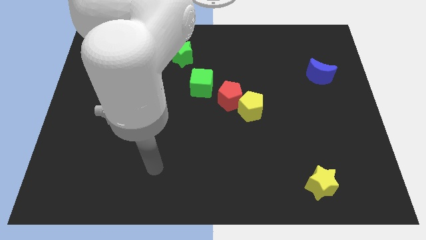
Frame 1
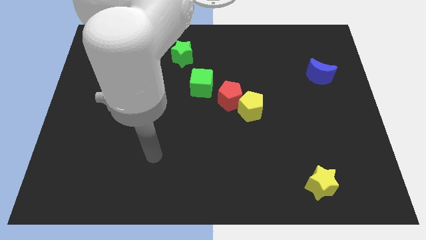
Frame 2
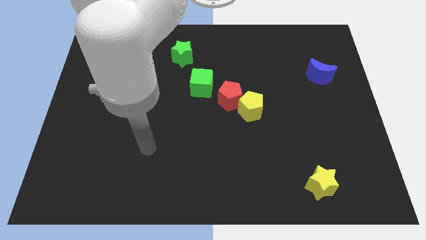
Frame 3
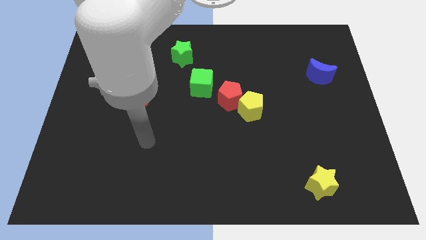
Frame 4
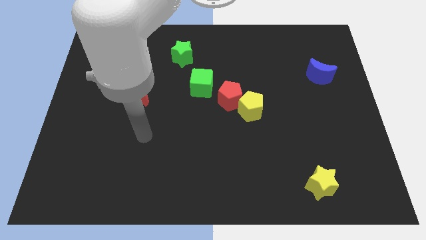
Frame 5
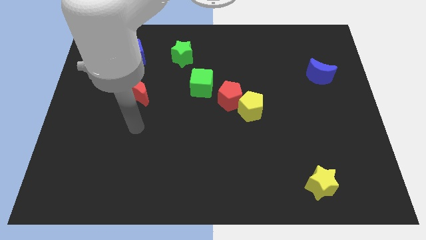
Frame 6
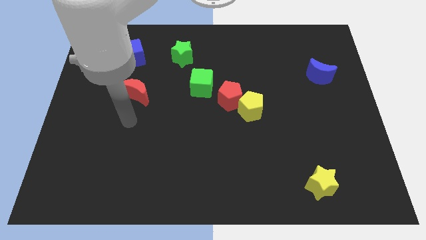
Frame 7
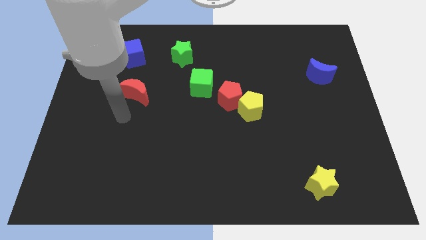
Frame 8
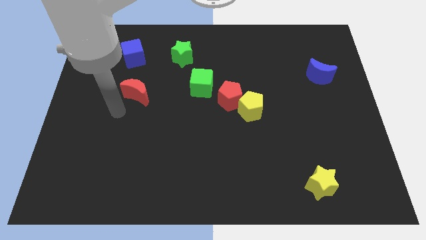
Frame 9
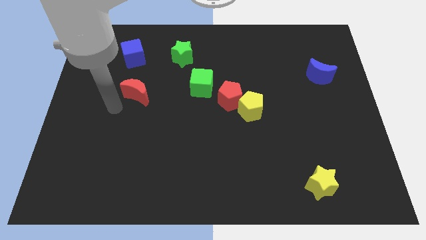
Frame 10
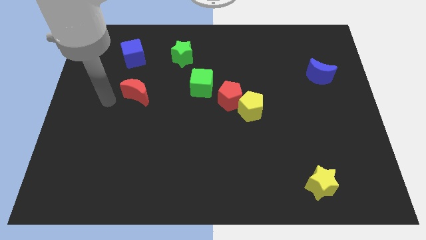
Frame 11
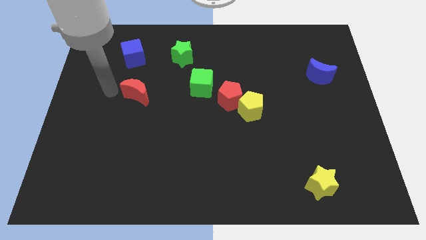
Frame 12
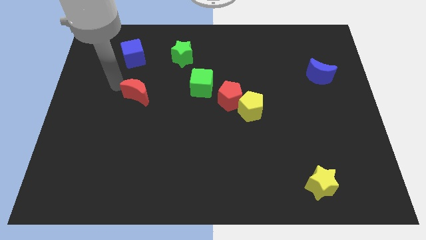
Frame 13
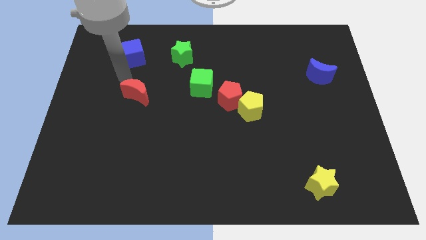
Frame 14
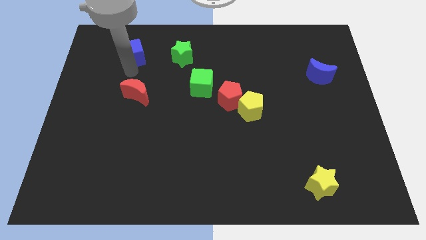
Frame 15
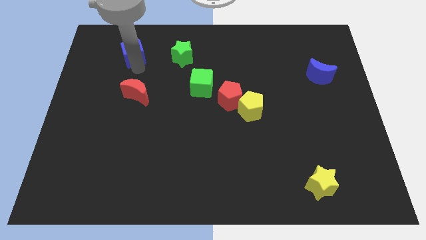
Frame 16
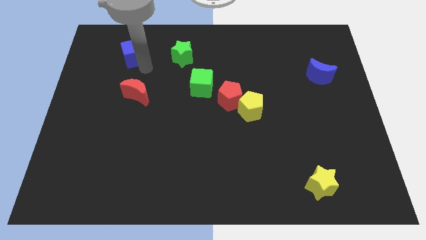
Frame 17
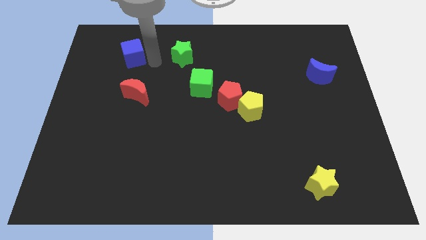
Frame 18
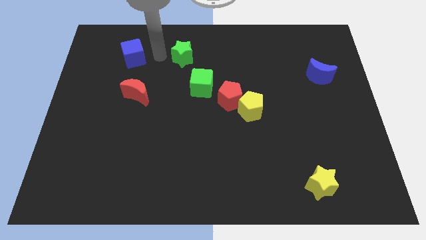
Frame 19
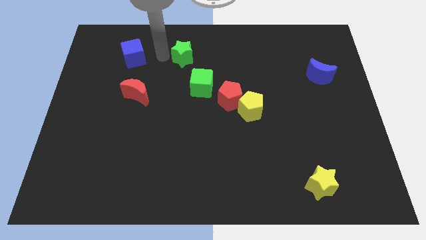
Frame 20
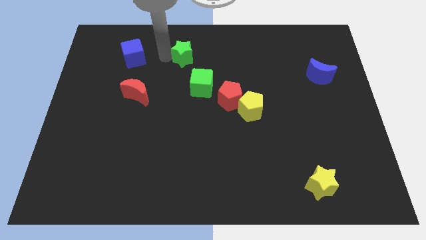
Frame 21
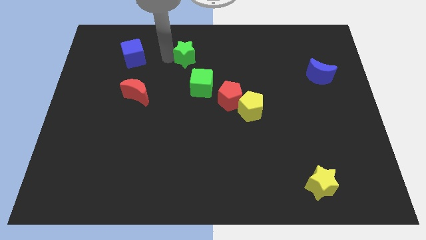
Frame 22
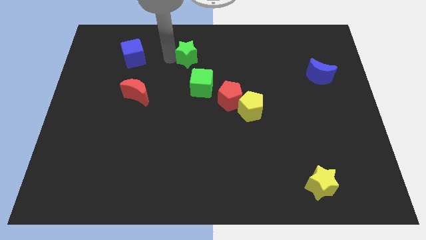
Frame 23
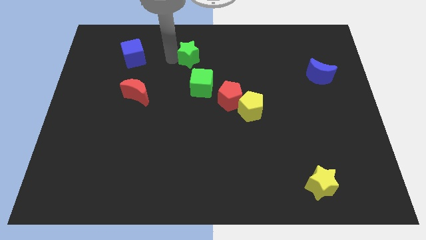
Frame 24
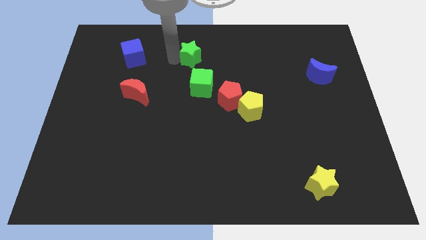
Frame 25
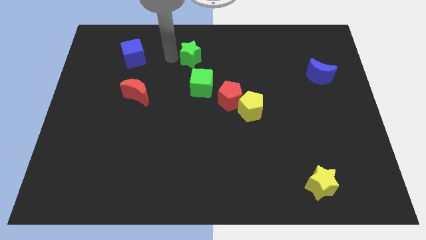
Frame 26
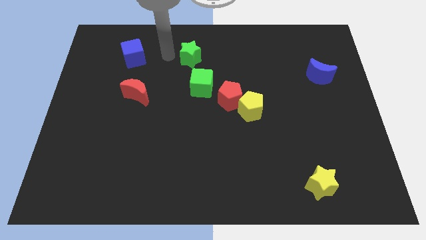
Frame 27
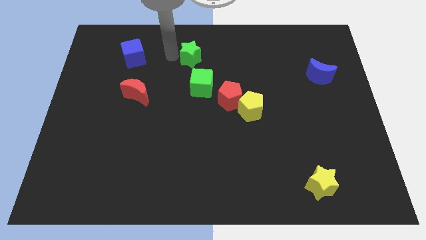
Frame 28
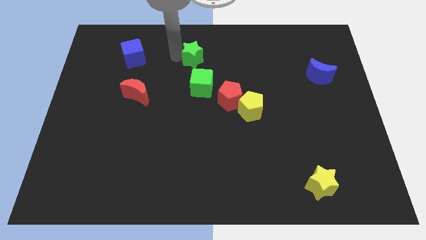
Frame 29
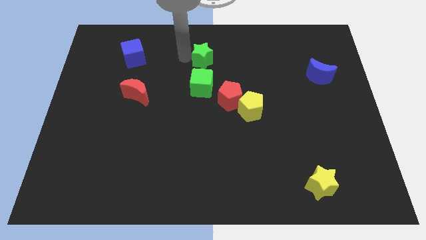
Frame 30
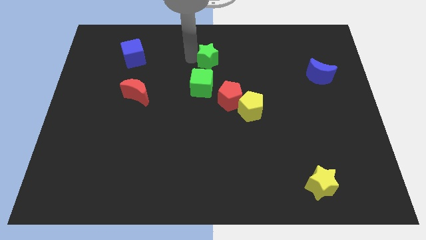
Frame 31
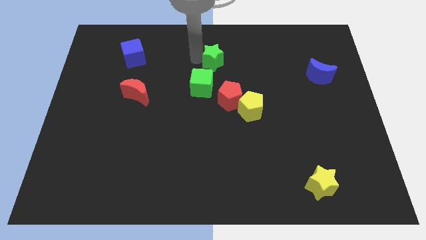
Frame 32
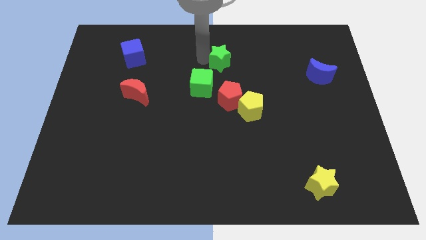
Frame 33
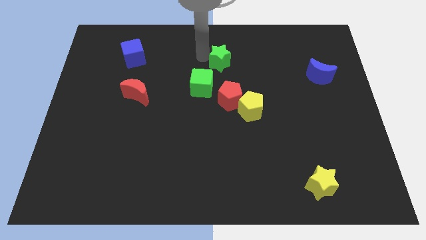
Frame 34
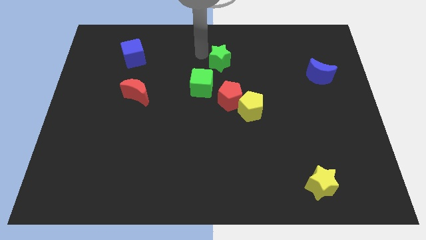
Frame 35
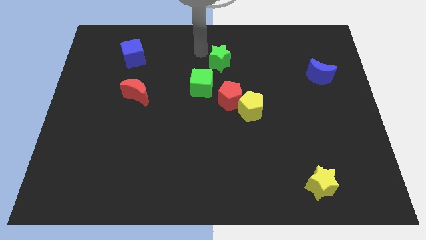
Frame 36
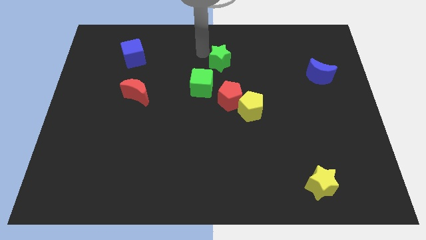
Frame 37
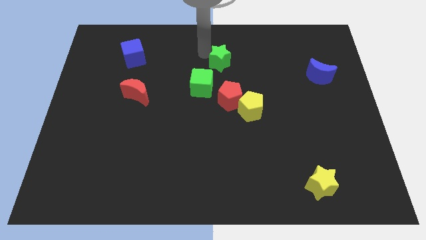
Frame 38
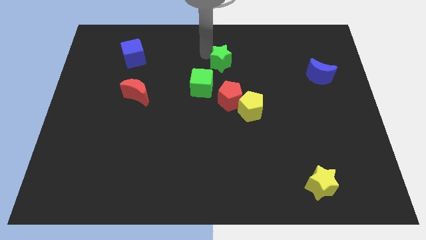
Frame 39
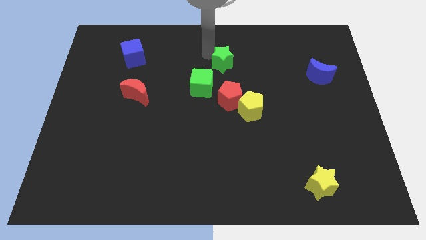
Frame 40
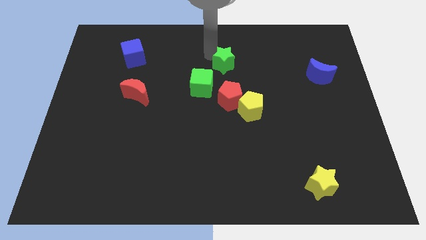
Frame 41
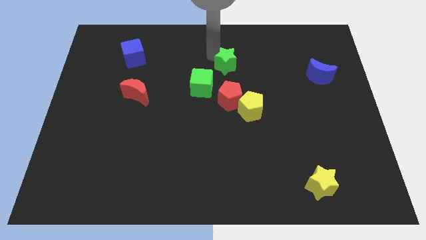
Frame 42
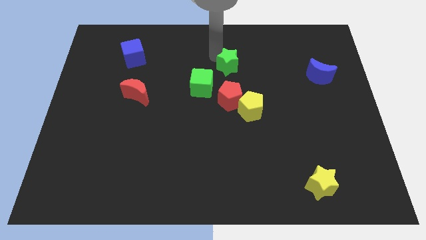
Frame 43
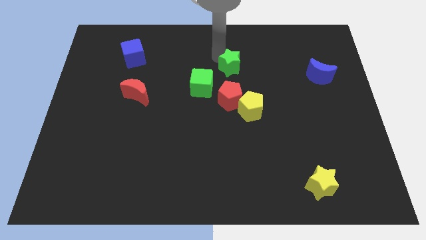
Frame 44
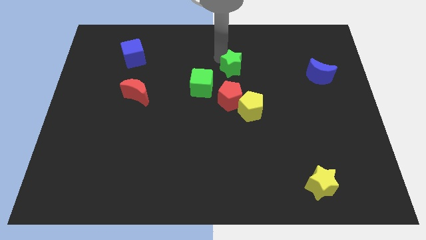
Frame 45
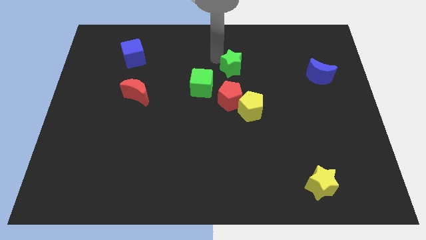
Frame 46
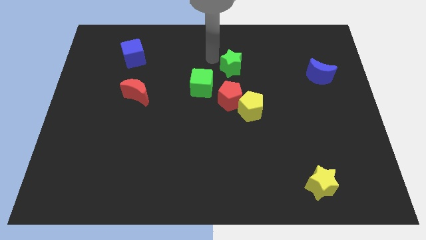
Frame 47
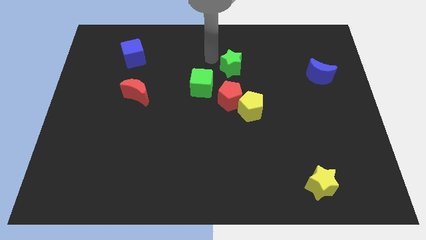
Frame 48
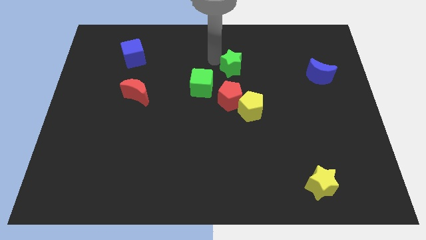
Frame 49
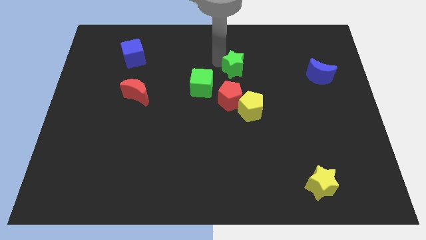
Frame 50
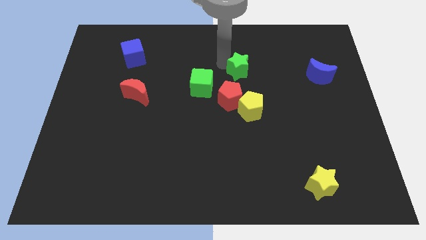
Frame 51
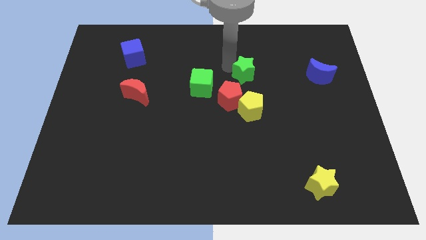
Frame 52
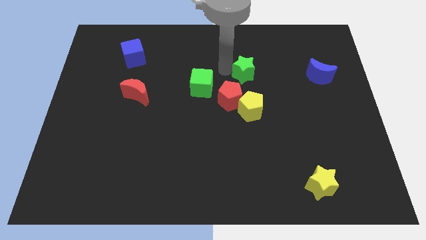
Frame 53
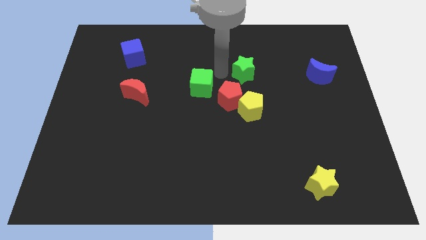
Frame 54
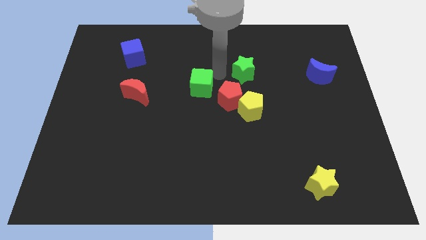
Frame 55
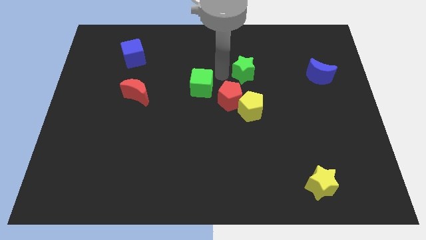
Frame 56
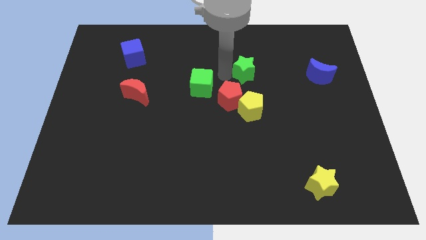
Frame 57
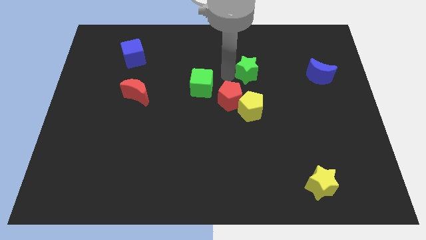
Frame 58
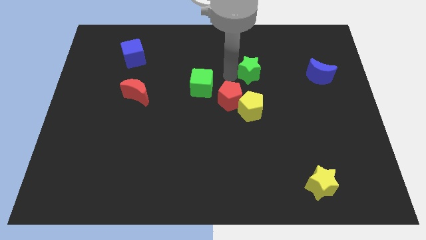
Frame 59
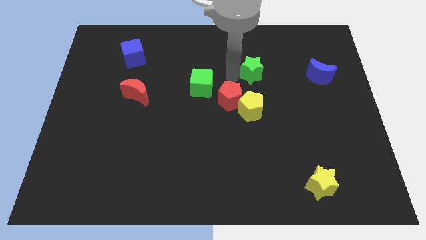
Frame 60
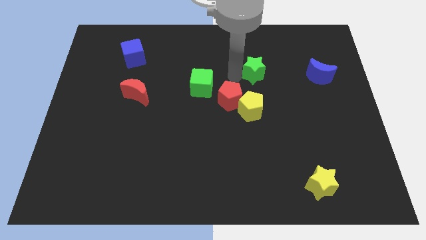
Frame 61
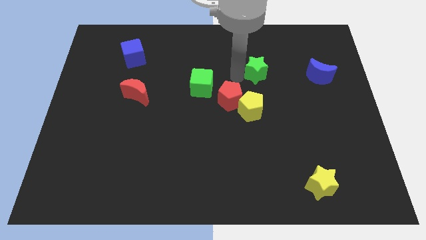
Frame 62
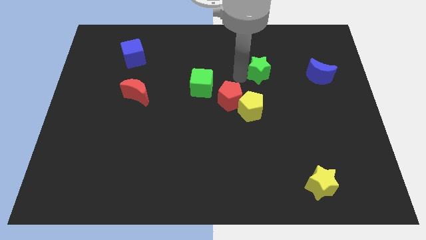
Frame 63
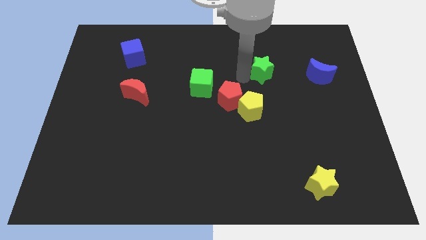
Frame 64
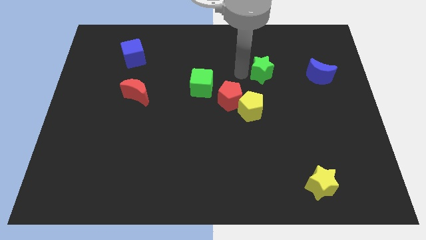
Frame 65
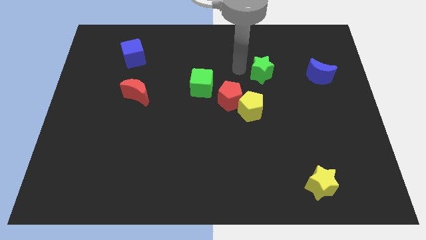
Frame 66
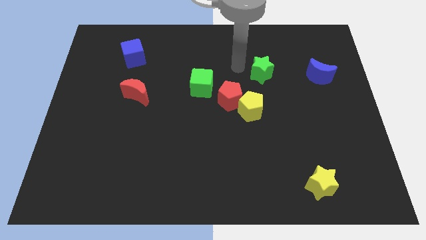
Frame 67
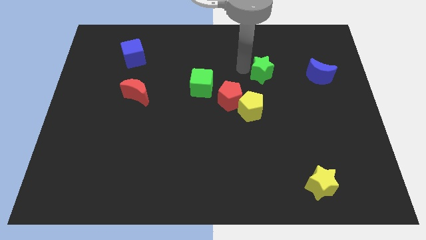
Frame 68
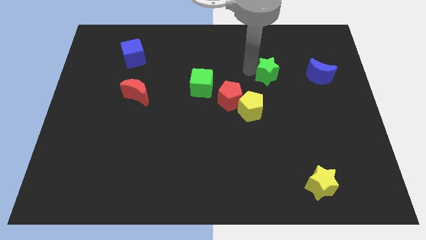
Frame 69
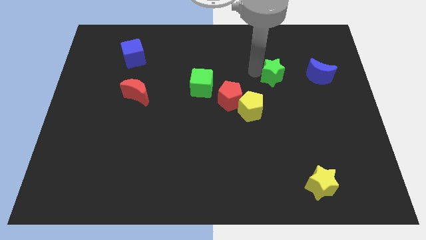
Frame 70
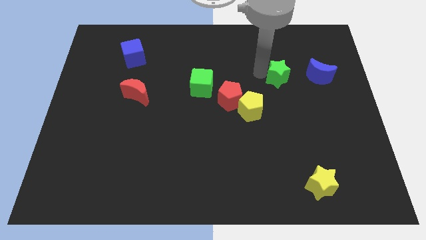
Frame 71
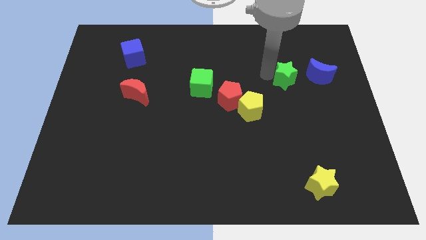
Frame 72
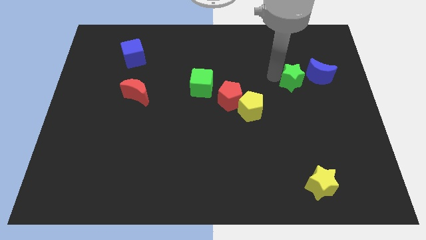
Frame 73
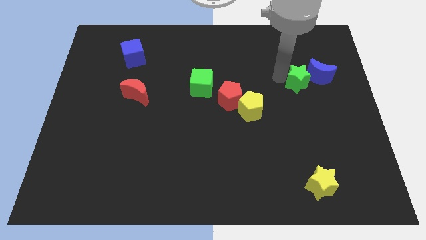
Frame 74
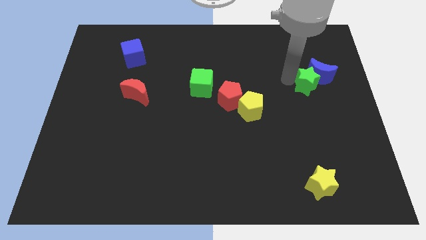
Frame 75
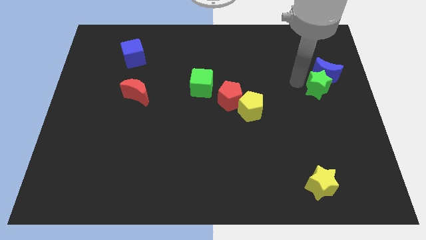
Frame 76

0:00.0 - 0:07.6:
put the green star to the right side
